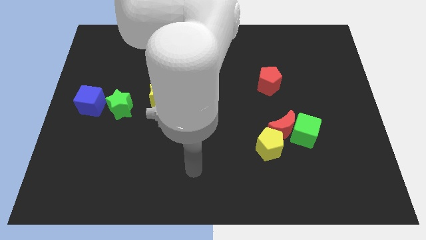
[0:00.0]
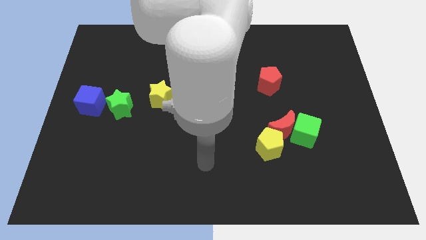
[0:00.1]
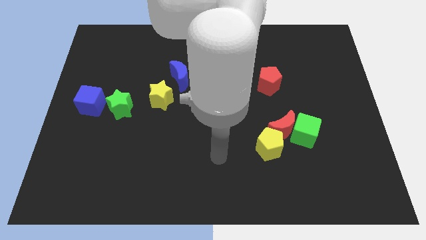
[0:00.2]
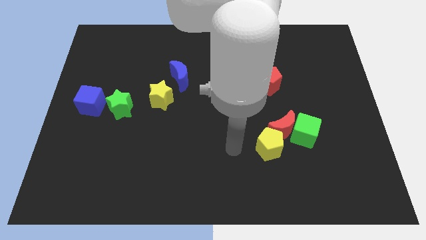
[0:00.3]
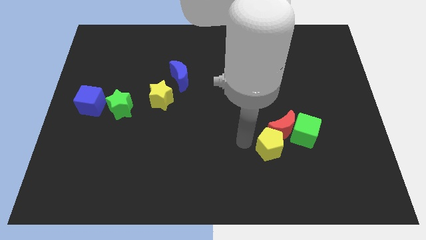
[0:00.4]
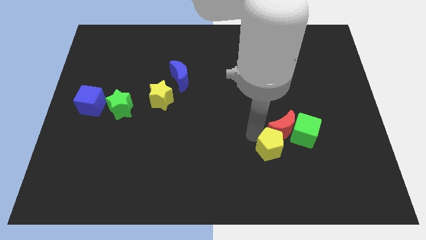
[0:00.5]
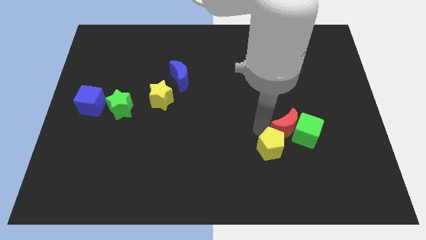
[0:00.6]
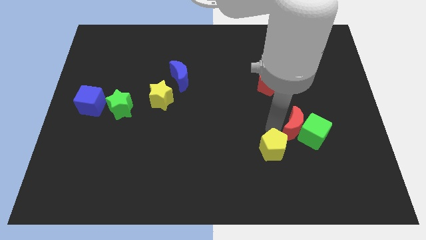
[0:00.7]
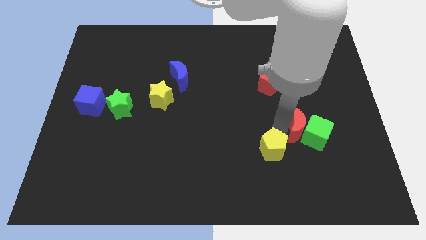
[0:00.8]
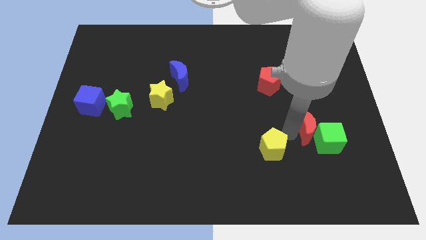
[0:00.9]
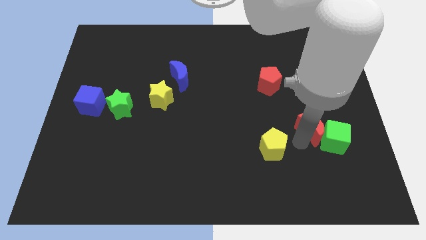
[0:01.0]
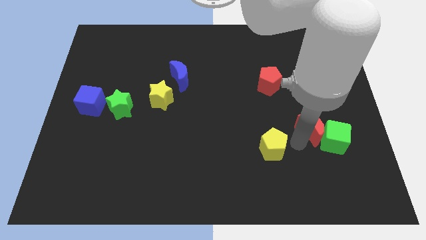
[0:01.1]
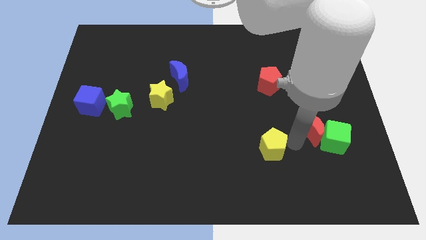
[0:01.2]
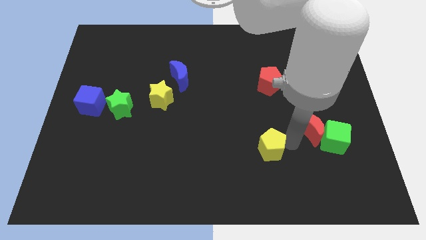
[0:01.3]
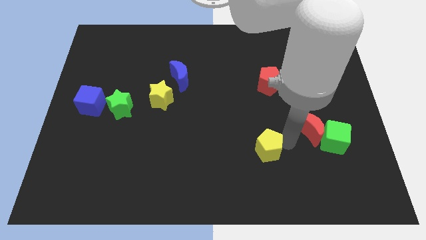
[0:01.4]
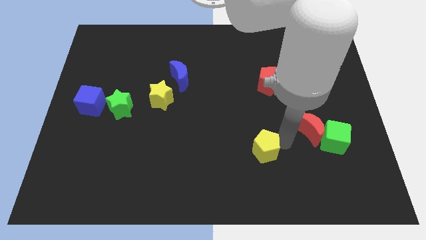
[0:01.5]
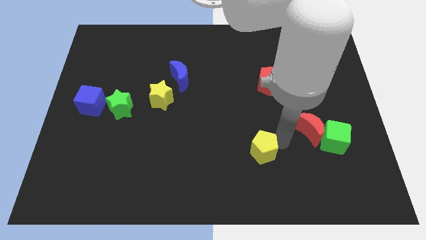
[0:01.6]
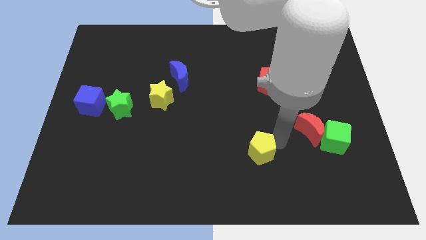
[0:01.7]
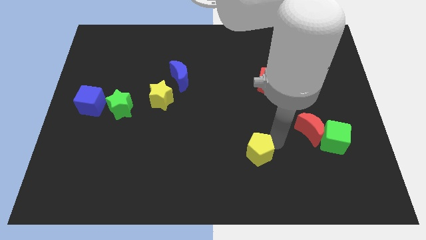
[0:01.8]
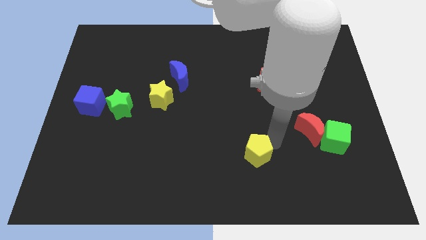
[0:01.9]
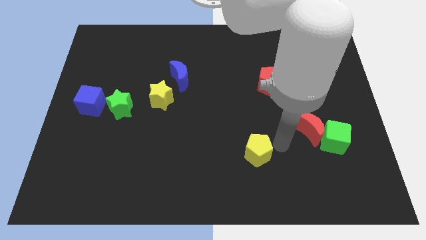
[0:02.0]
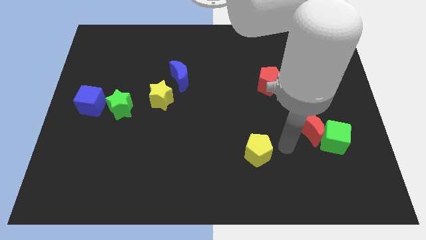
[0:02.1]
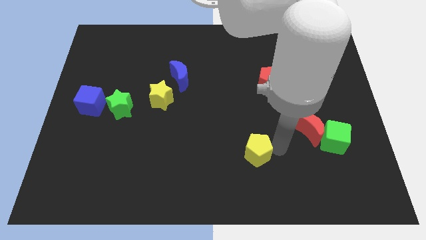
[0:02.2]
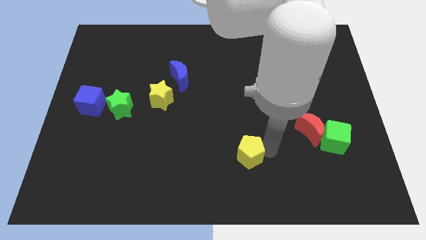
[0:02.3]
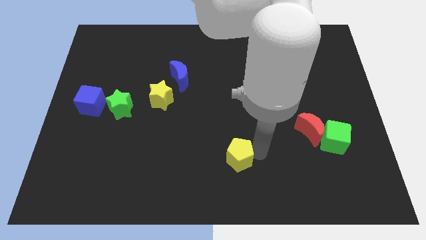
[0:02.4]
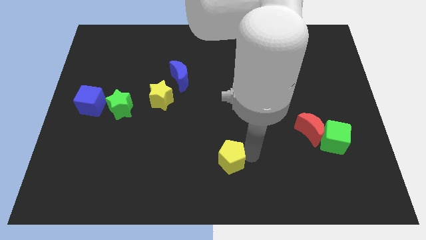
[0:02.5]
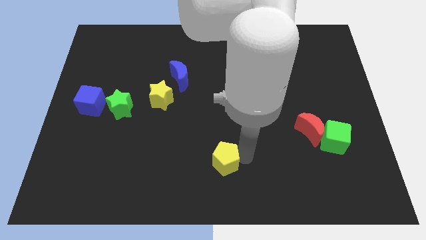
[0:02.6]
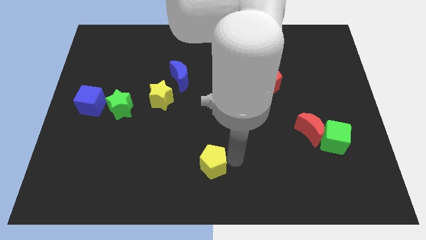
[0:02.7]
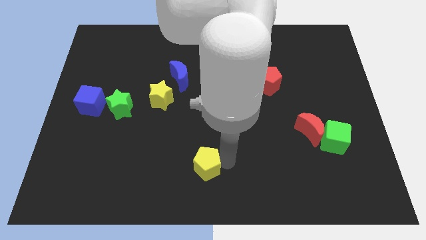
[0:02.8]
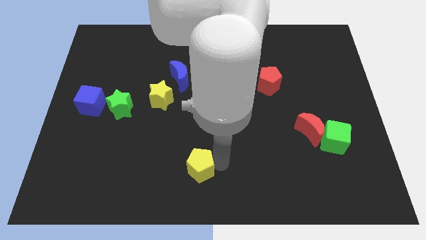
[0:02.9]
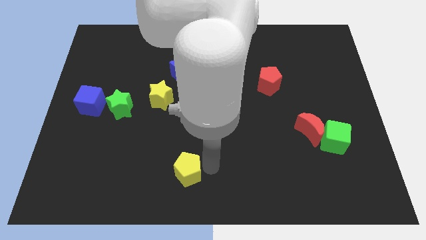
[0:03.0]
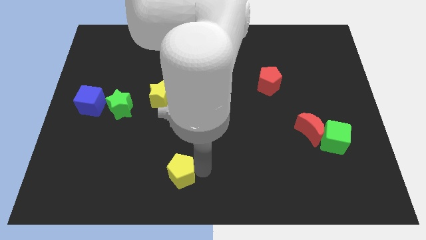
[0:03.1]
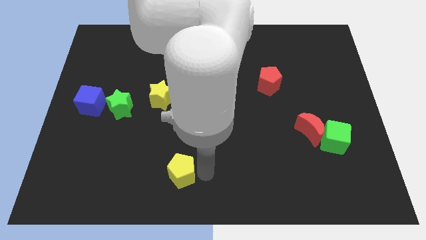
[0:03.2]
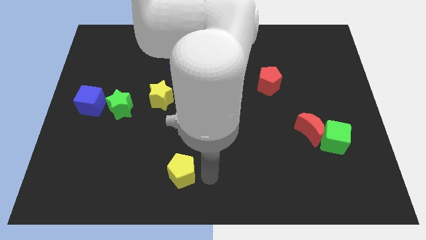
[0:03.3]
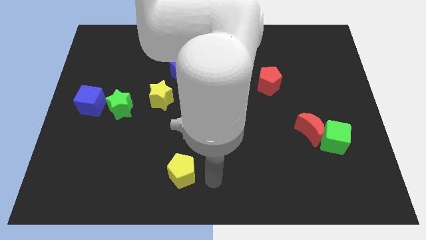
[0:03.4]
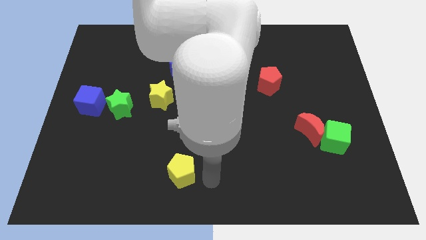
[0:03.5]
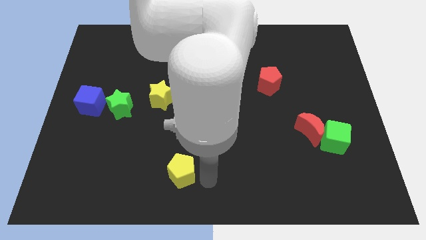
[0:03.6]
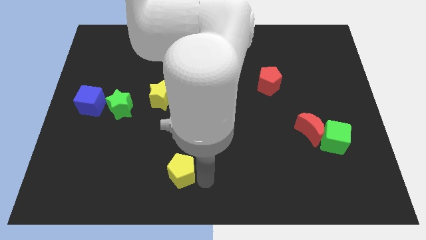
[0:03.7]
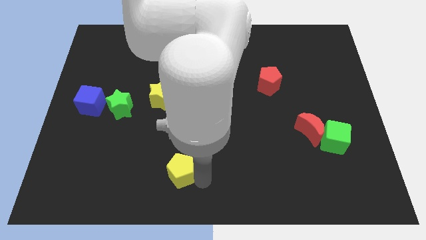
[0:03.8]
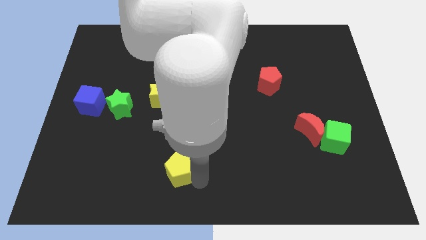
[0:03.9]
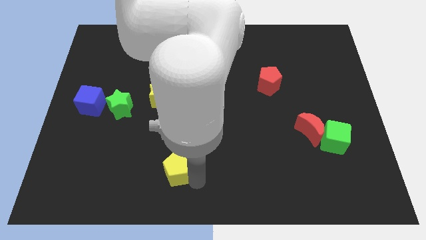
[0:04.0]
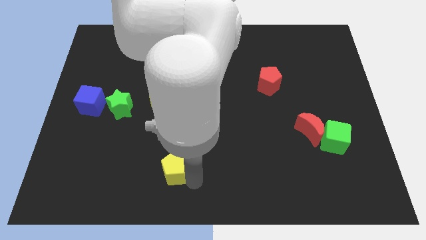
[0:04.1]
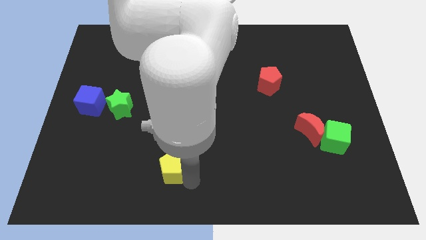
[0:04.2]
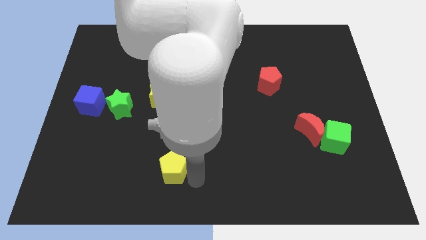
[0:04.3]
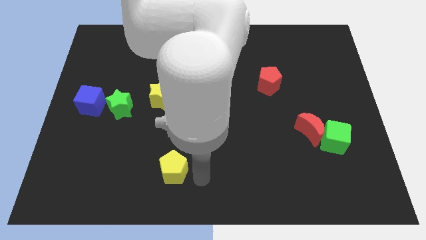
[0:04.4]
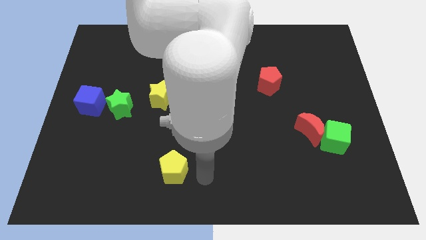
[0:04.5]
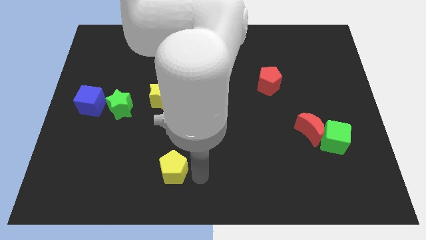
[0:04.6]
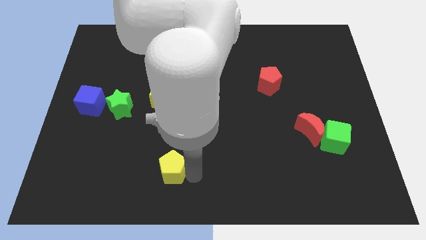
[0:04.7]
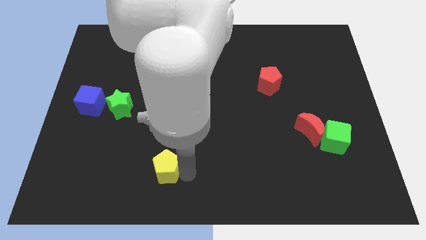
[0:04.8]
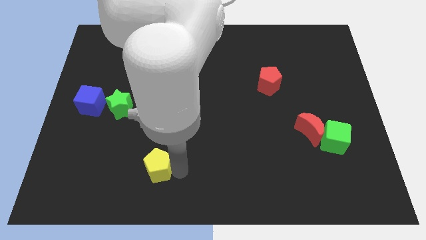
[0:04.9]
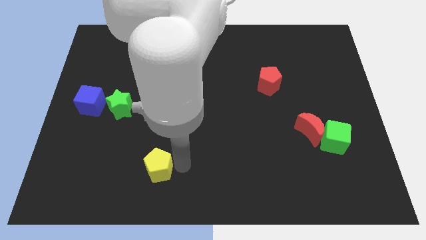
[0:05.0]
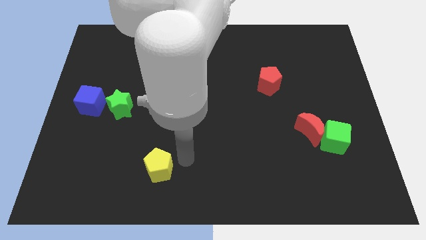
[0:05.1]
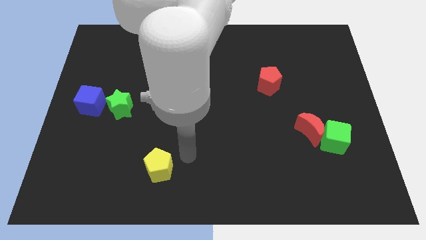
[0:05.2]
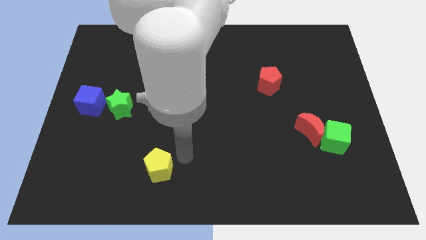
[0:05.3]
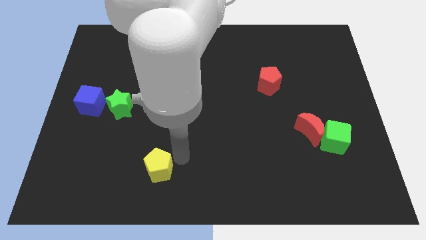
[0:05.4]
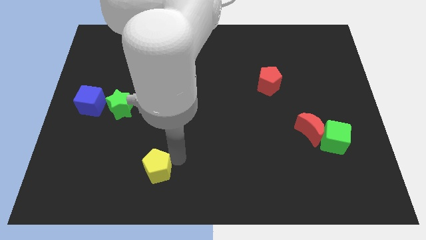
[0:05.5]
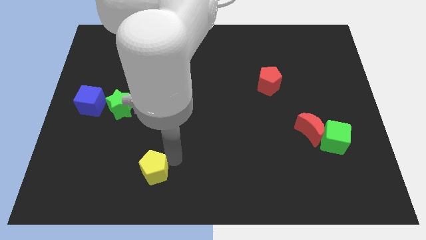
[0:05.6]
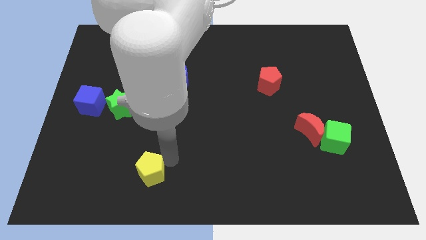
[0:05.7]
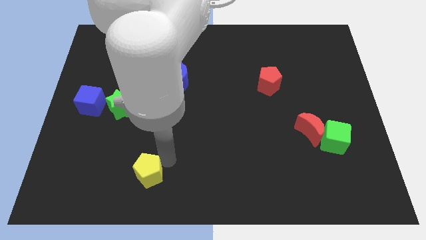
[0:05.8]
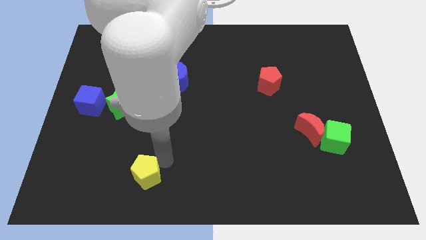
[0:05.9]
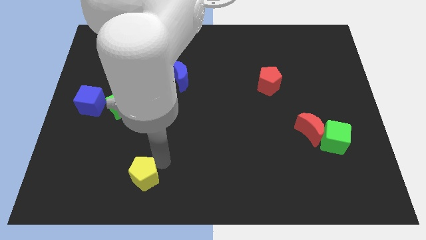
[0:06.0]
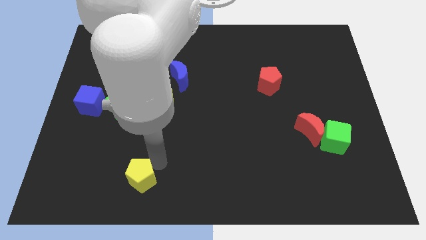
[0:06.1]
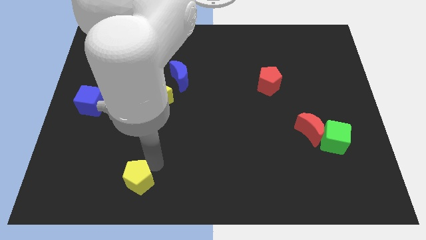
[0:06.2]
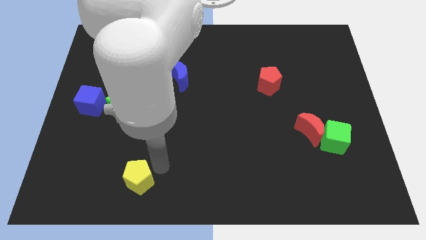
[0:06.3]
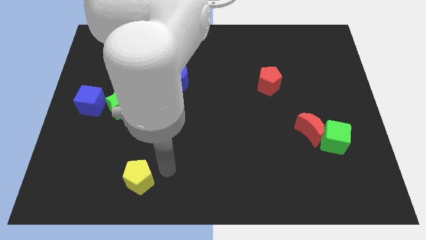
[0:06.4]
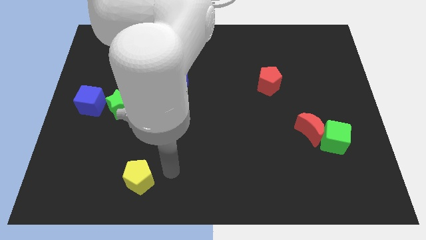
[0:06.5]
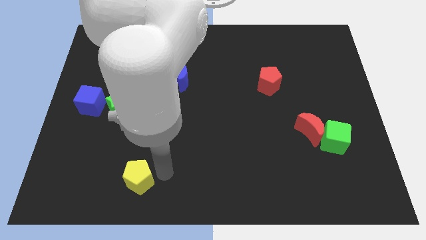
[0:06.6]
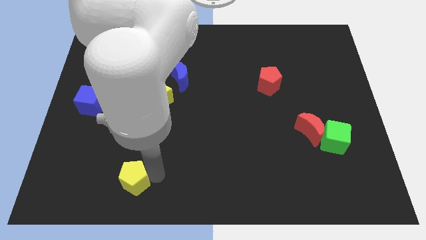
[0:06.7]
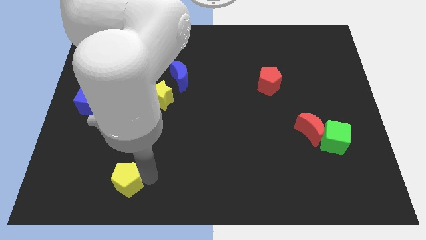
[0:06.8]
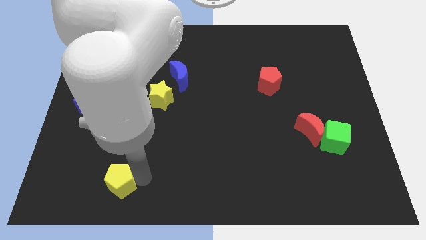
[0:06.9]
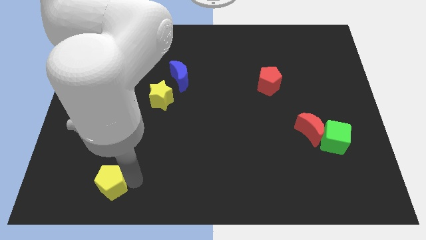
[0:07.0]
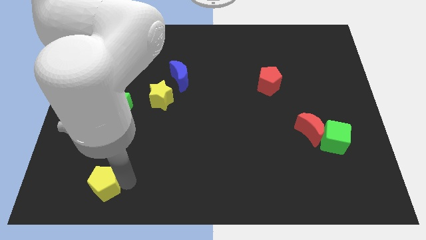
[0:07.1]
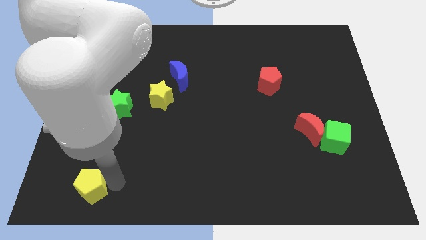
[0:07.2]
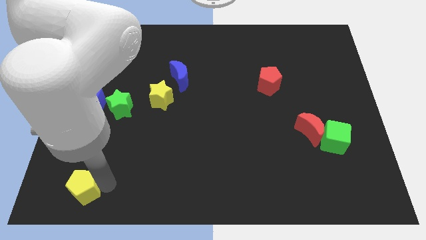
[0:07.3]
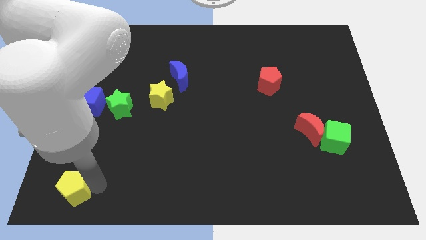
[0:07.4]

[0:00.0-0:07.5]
move the yellow pentagon to the lower left corner
